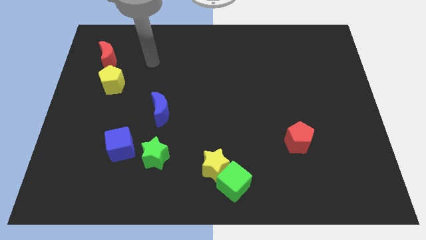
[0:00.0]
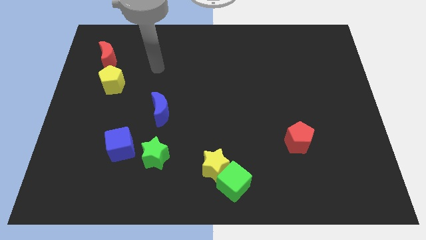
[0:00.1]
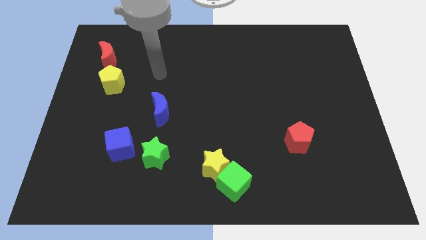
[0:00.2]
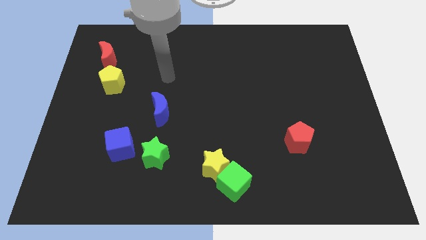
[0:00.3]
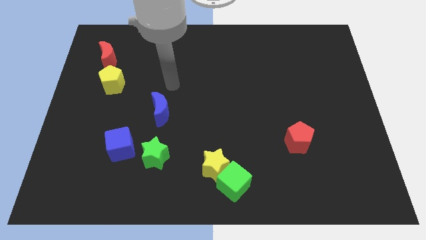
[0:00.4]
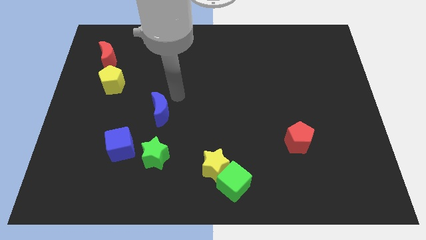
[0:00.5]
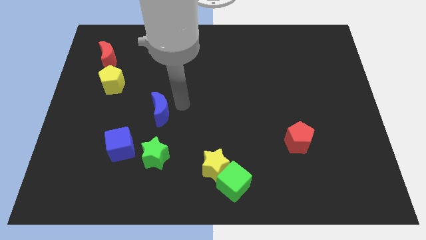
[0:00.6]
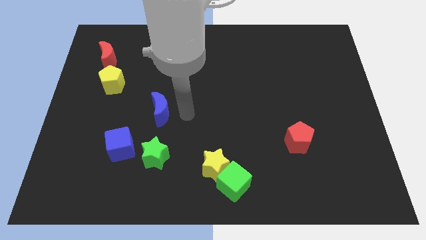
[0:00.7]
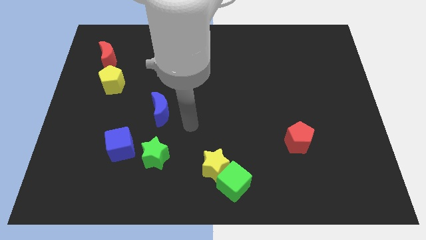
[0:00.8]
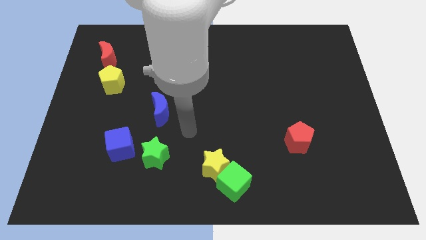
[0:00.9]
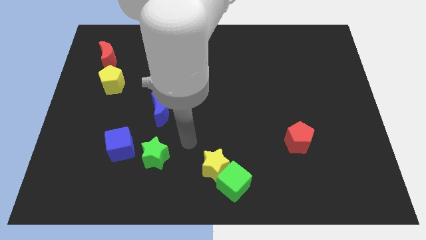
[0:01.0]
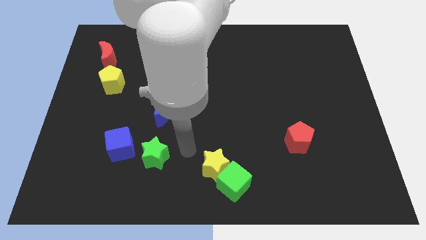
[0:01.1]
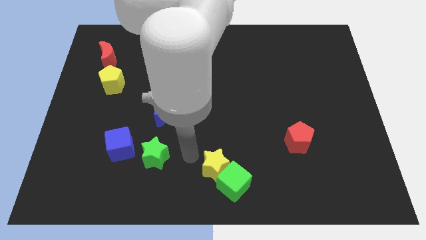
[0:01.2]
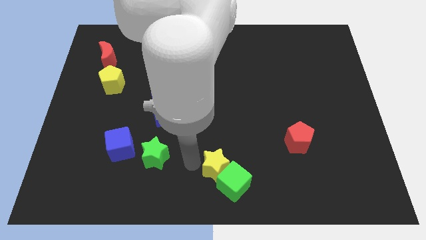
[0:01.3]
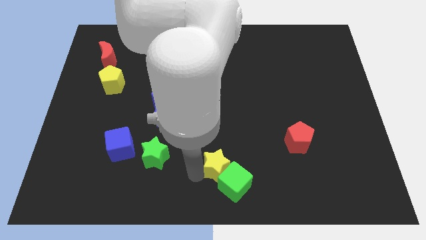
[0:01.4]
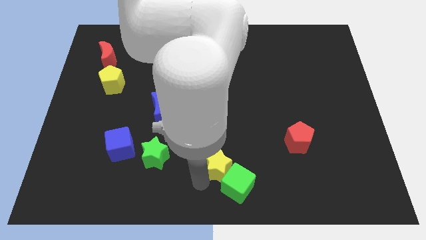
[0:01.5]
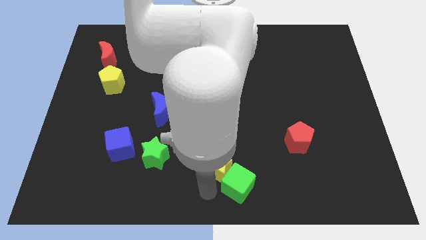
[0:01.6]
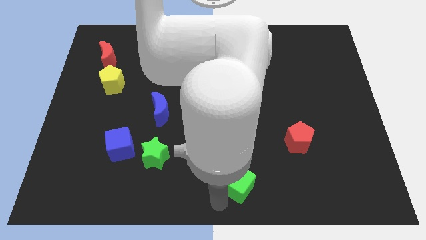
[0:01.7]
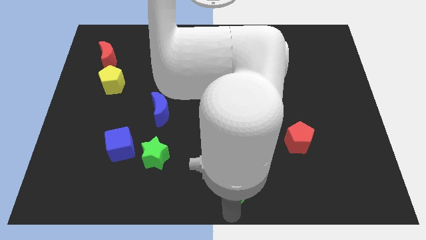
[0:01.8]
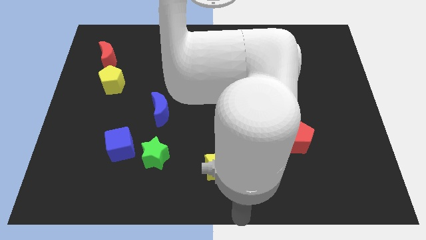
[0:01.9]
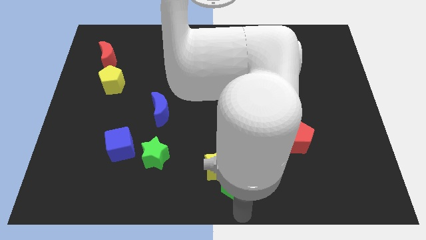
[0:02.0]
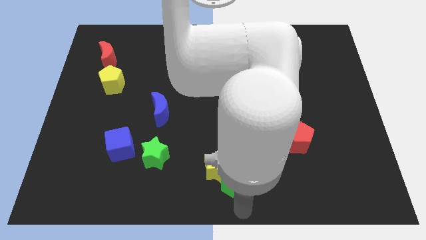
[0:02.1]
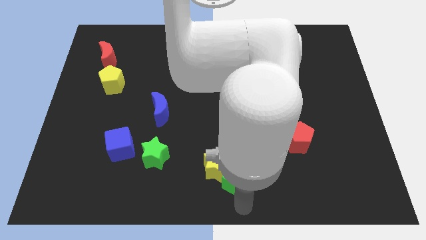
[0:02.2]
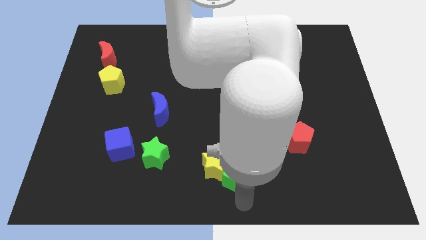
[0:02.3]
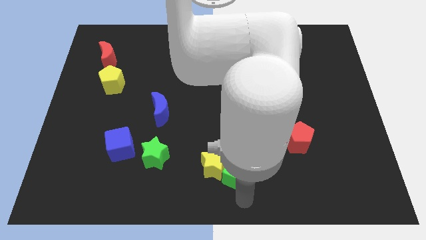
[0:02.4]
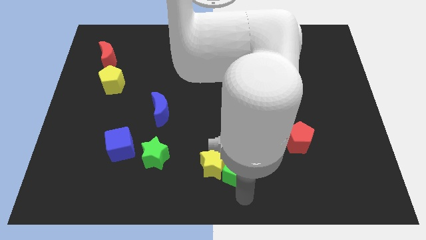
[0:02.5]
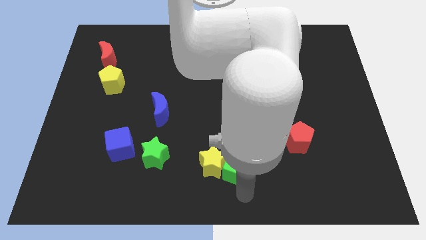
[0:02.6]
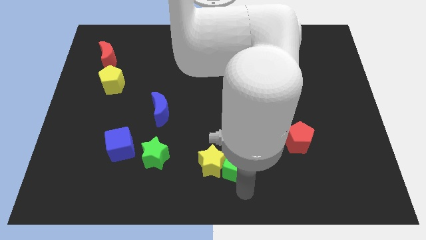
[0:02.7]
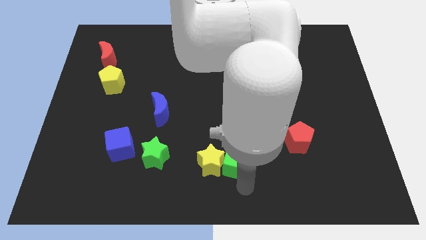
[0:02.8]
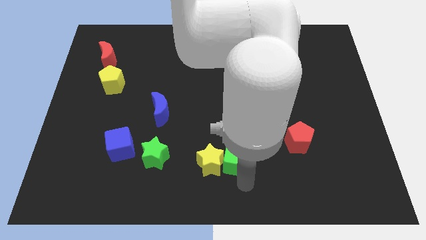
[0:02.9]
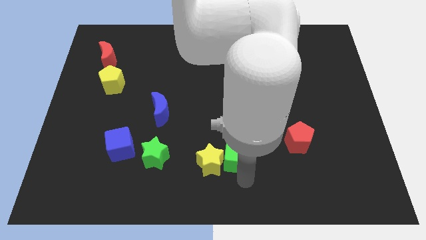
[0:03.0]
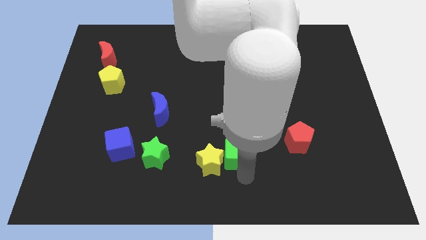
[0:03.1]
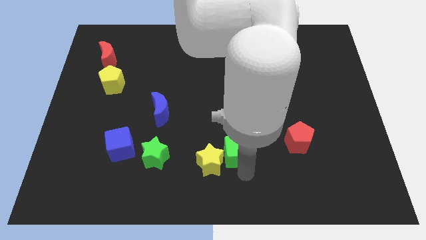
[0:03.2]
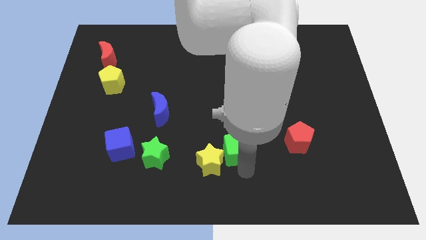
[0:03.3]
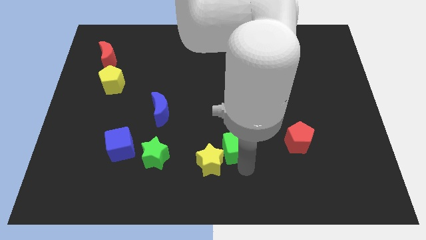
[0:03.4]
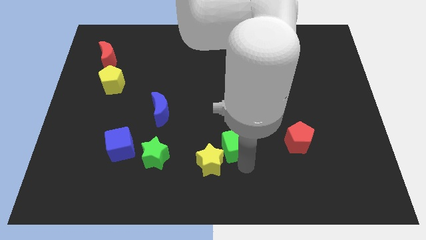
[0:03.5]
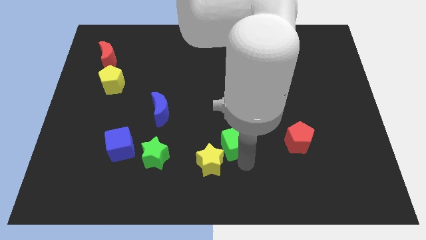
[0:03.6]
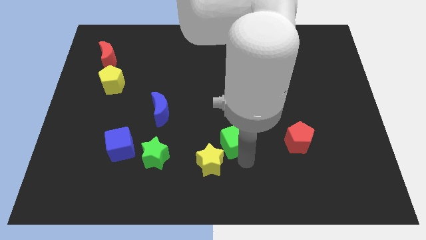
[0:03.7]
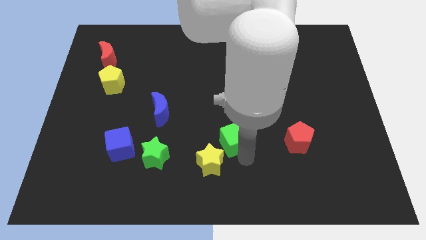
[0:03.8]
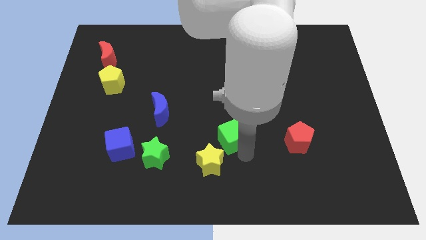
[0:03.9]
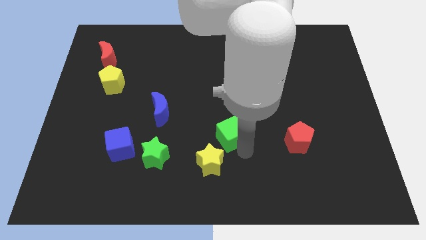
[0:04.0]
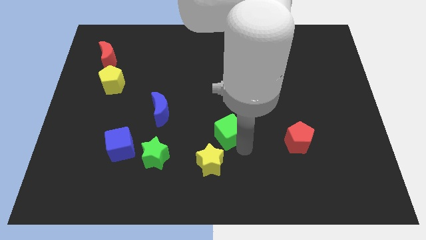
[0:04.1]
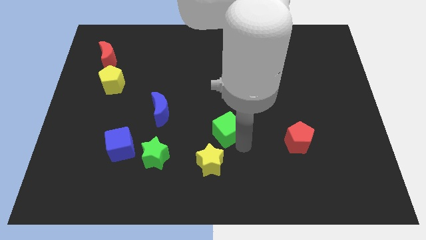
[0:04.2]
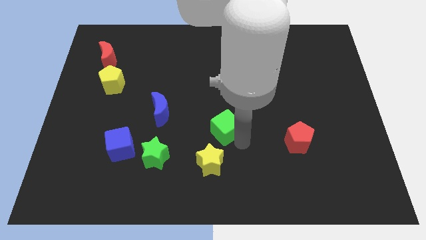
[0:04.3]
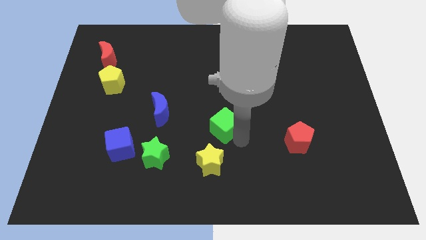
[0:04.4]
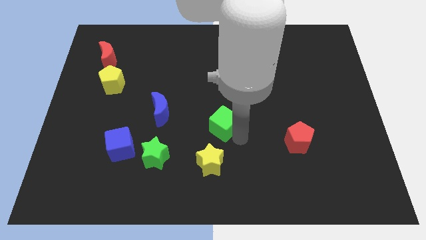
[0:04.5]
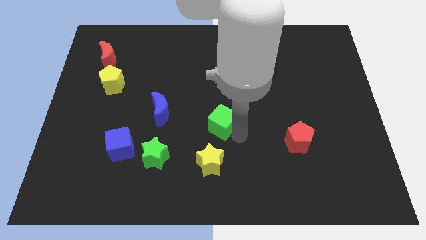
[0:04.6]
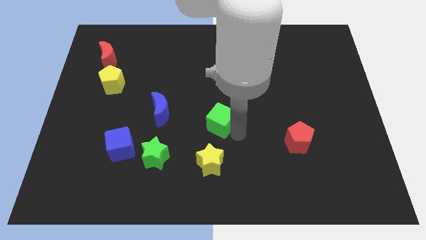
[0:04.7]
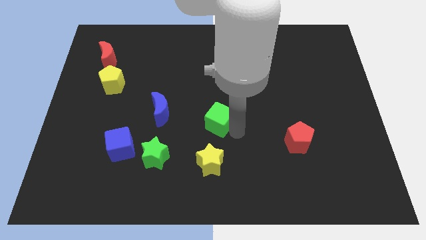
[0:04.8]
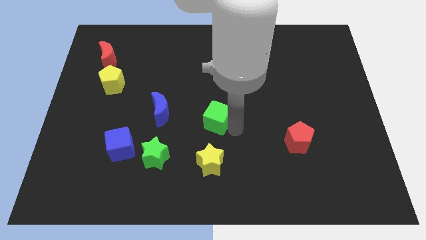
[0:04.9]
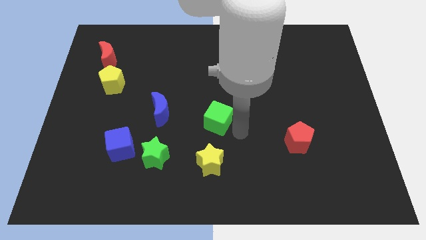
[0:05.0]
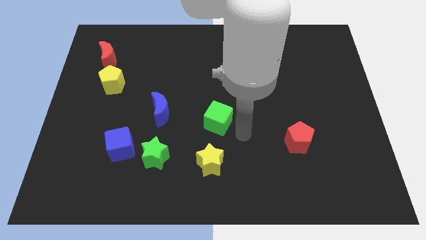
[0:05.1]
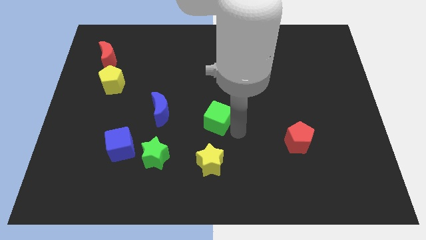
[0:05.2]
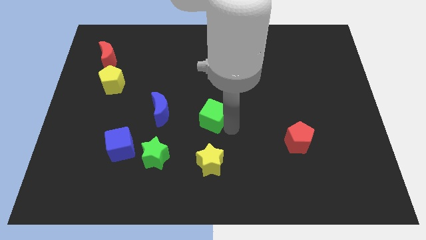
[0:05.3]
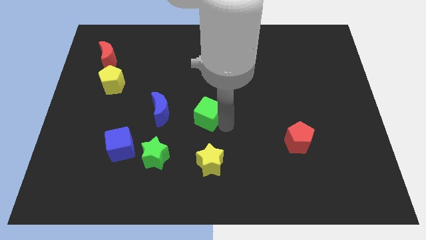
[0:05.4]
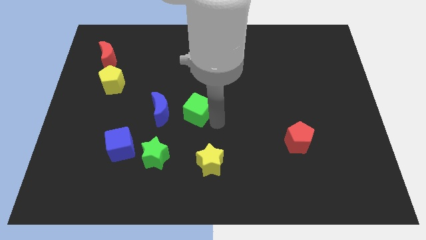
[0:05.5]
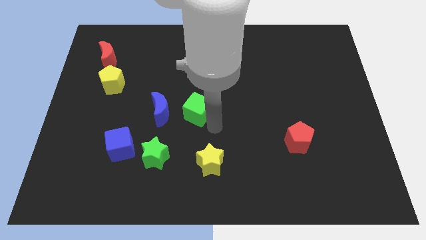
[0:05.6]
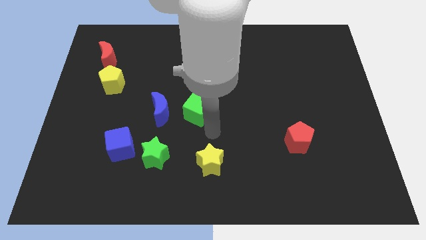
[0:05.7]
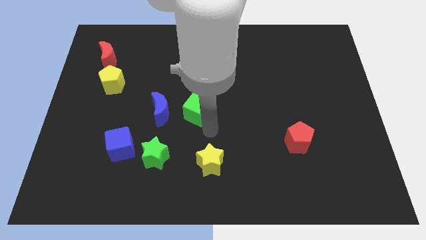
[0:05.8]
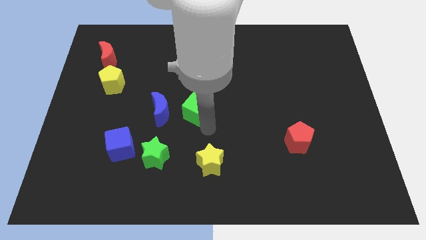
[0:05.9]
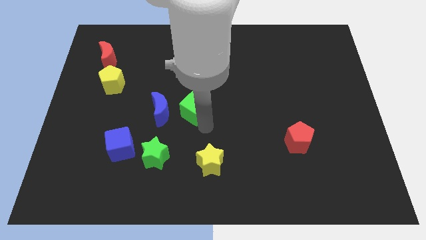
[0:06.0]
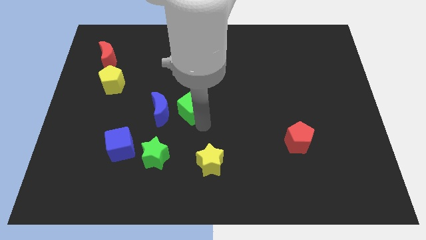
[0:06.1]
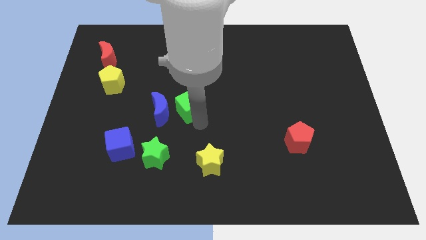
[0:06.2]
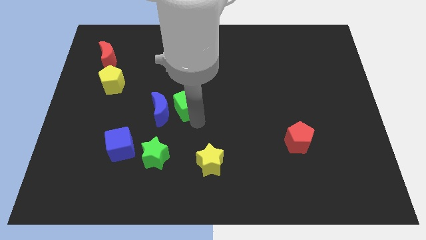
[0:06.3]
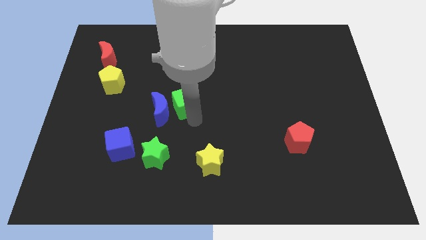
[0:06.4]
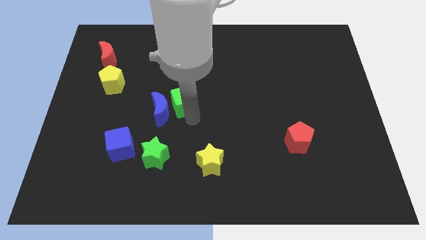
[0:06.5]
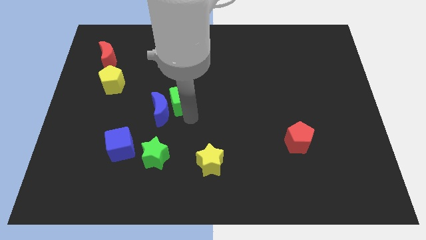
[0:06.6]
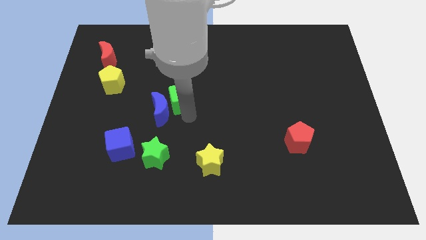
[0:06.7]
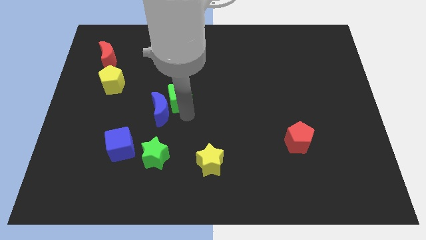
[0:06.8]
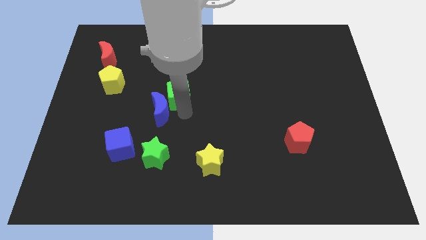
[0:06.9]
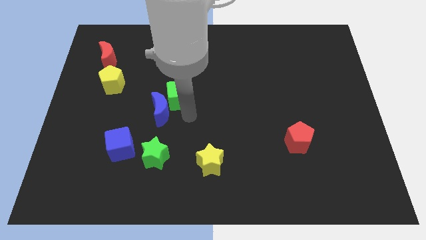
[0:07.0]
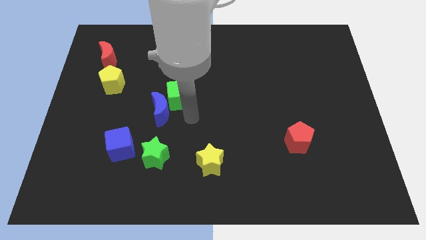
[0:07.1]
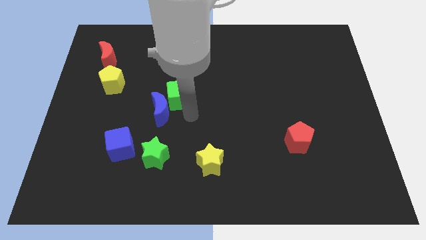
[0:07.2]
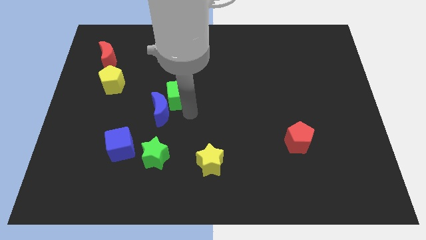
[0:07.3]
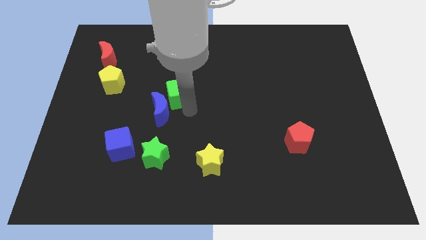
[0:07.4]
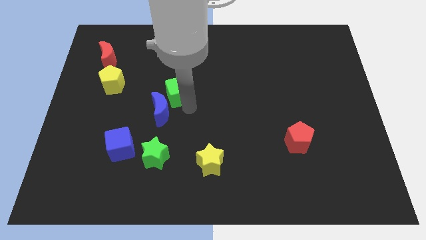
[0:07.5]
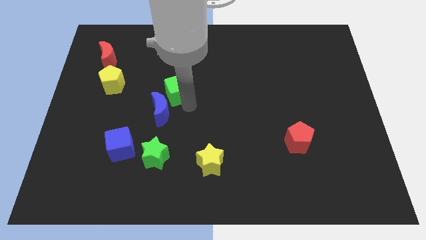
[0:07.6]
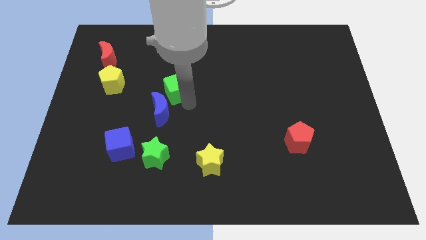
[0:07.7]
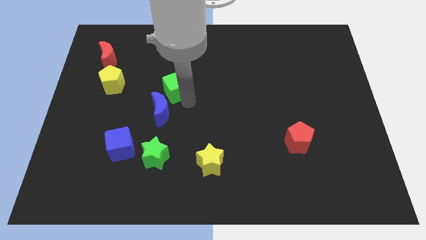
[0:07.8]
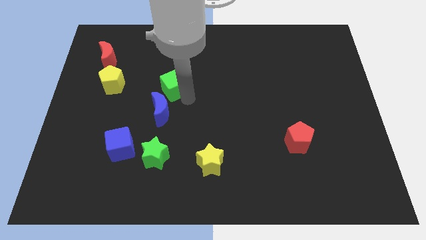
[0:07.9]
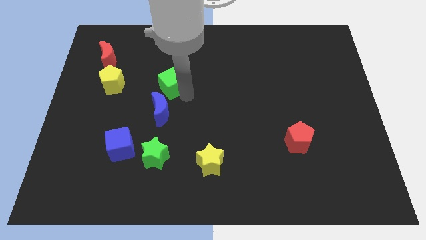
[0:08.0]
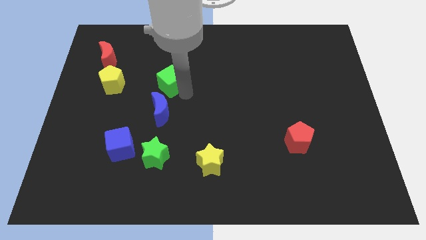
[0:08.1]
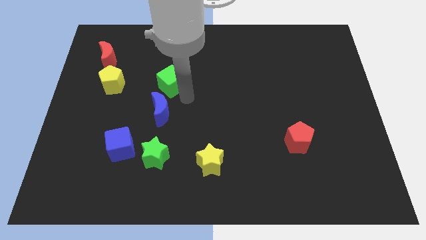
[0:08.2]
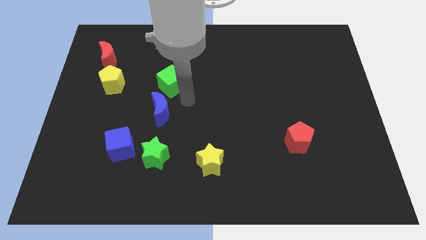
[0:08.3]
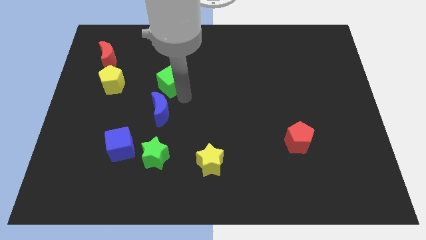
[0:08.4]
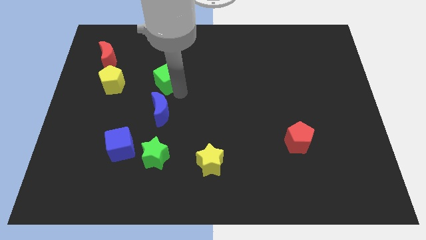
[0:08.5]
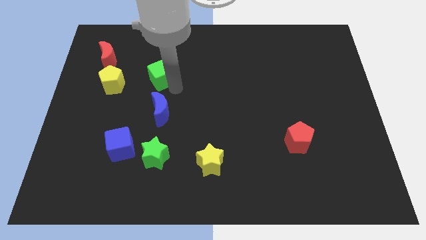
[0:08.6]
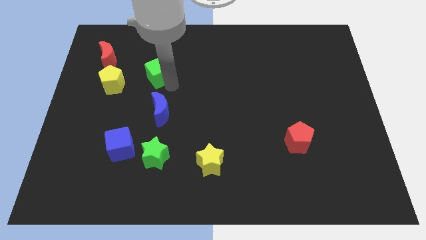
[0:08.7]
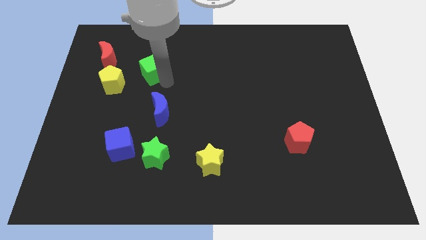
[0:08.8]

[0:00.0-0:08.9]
push the green cube to the right of the red moon
